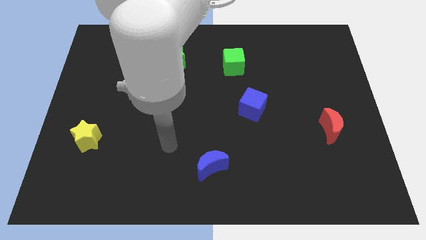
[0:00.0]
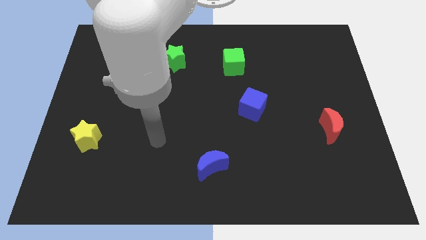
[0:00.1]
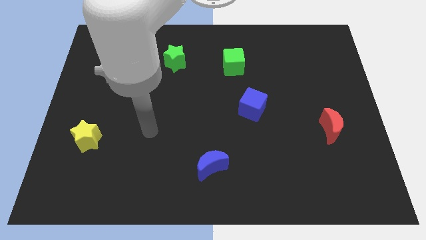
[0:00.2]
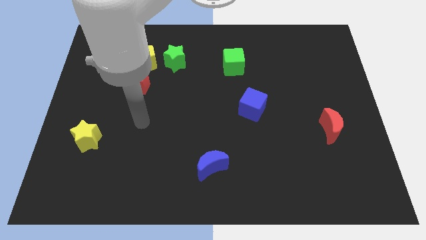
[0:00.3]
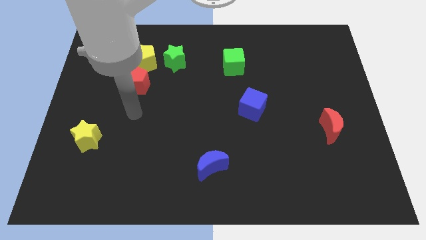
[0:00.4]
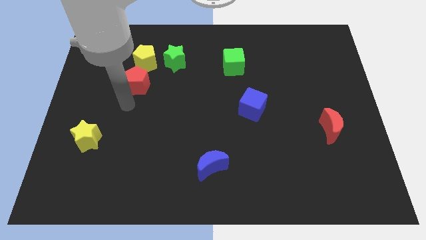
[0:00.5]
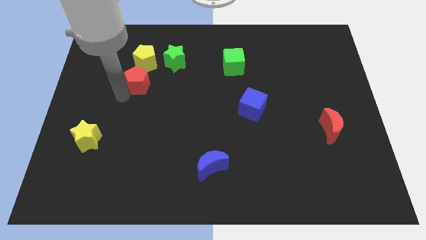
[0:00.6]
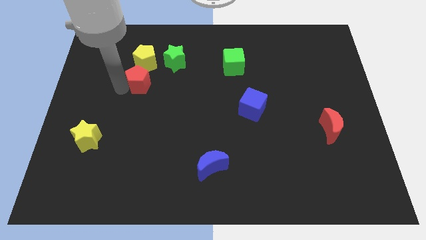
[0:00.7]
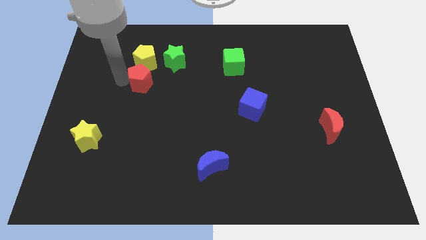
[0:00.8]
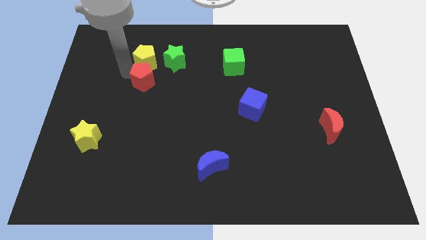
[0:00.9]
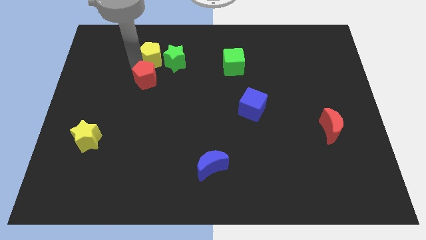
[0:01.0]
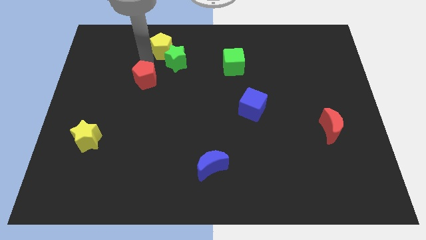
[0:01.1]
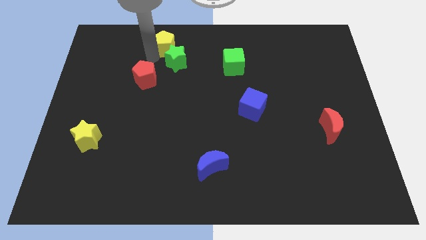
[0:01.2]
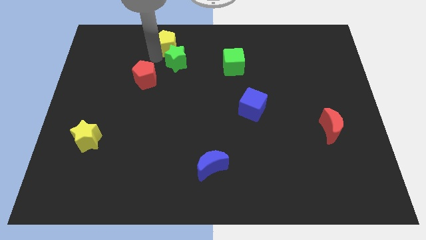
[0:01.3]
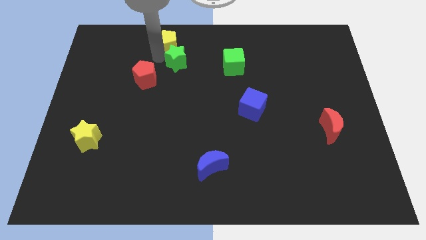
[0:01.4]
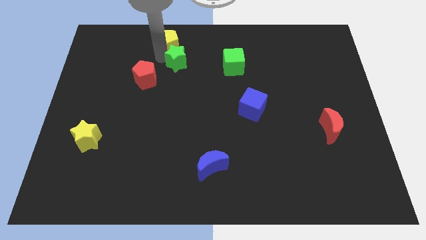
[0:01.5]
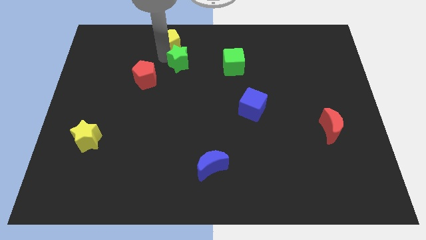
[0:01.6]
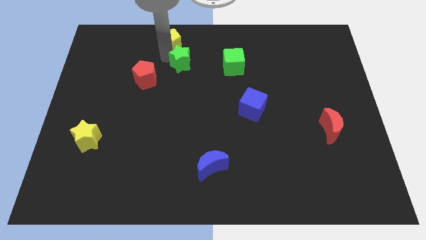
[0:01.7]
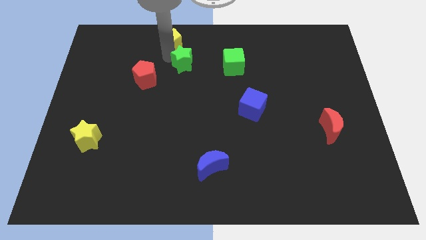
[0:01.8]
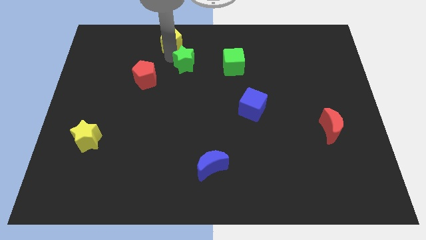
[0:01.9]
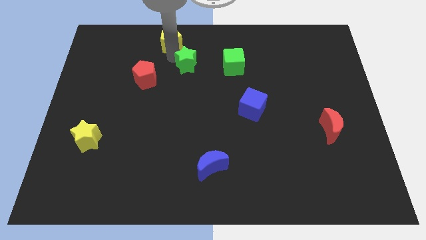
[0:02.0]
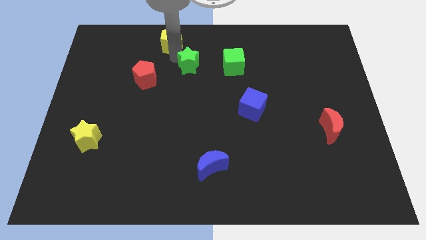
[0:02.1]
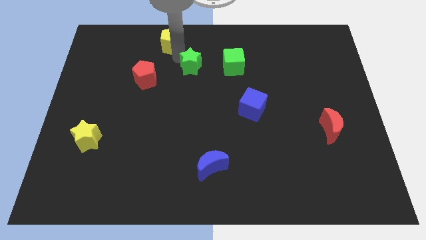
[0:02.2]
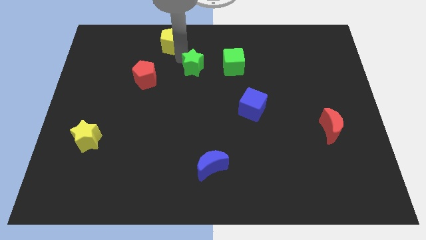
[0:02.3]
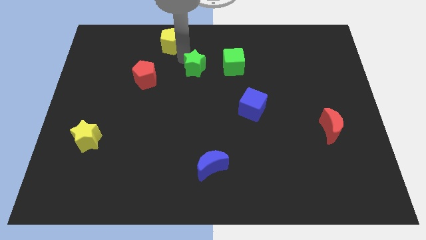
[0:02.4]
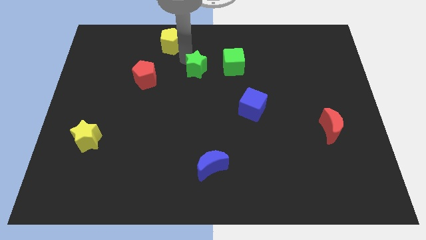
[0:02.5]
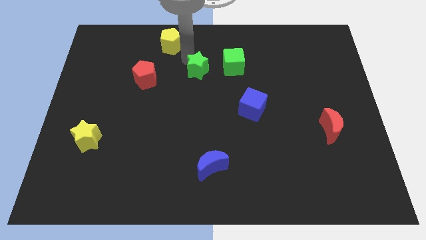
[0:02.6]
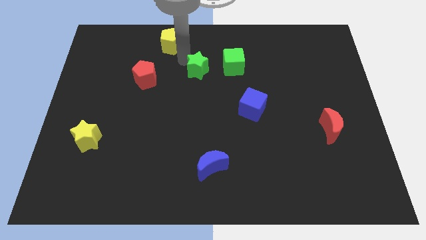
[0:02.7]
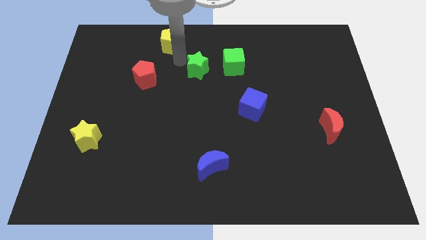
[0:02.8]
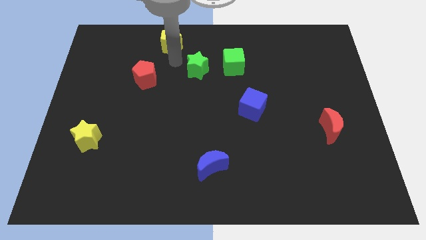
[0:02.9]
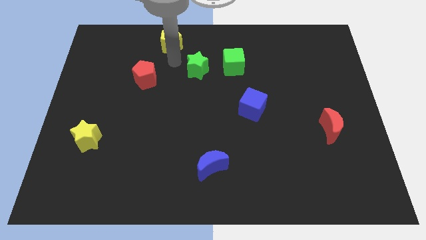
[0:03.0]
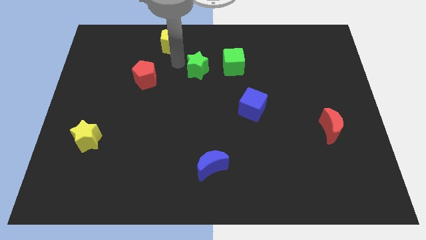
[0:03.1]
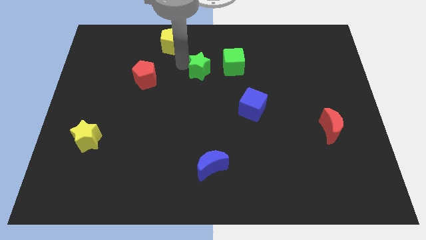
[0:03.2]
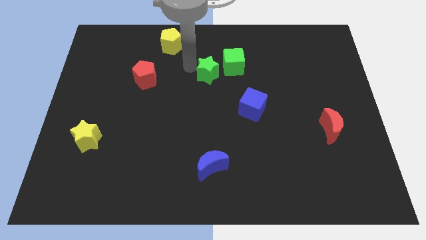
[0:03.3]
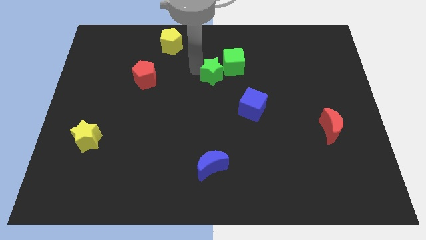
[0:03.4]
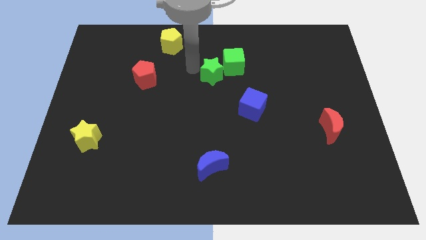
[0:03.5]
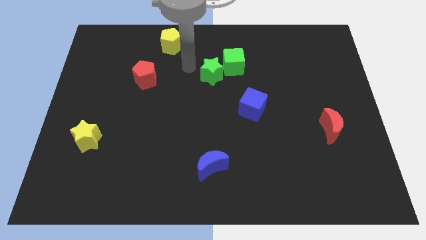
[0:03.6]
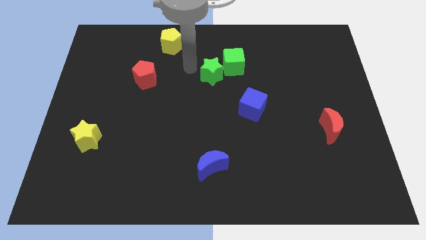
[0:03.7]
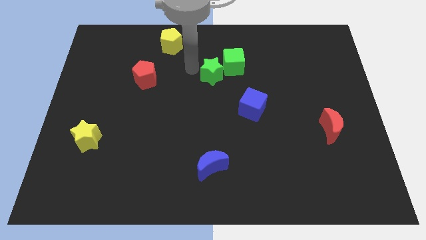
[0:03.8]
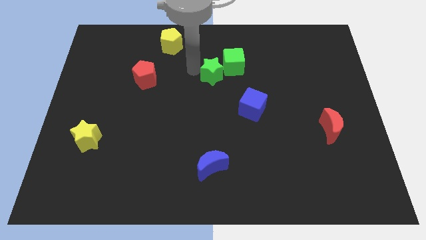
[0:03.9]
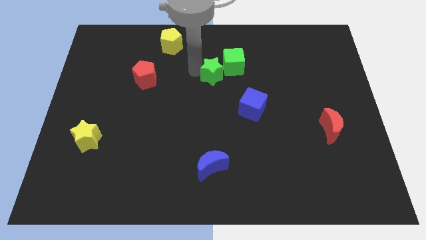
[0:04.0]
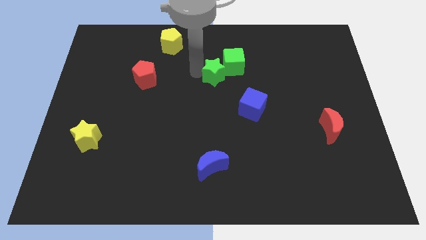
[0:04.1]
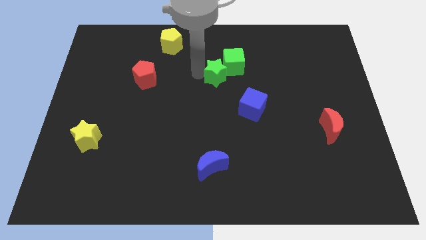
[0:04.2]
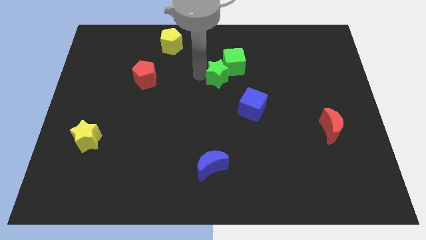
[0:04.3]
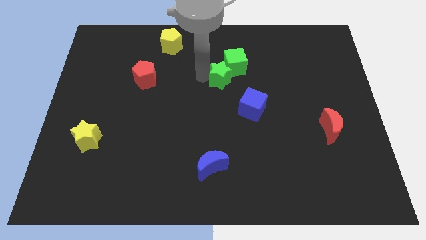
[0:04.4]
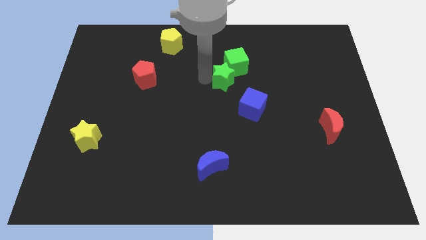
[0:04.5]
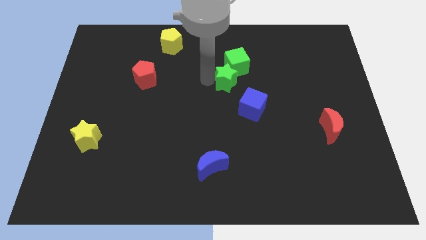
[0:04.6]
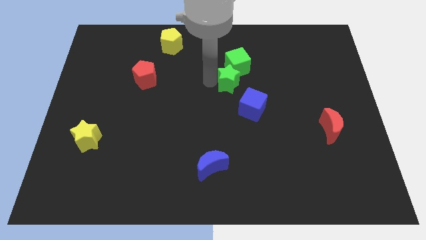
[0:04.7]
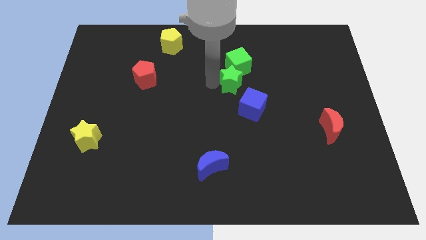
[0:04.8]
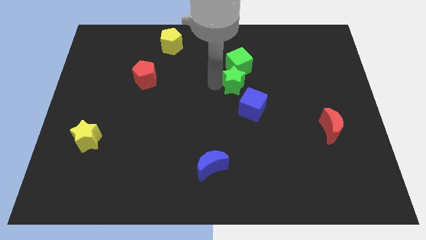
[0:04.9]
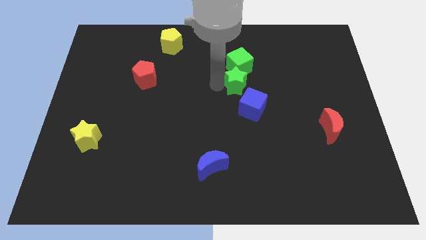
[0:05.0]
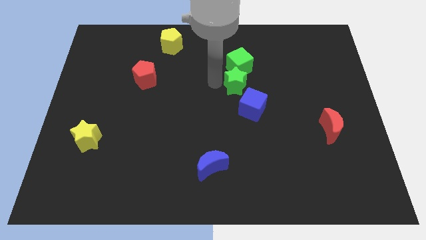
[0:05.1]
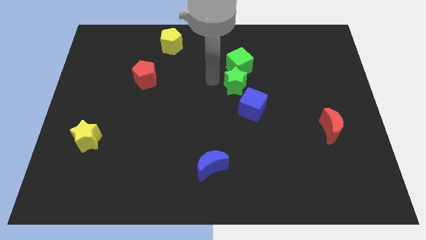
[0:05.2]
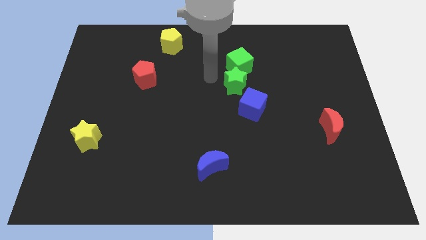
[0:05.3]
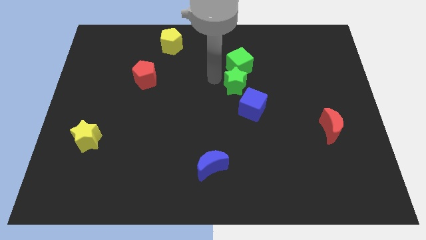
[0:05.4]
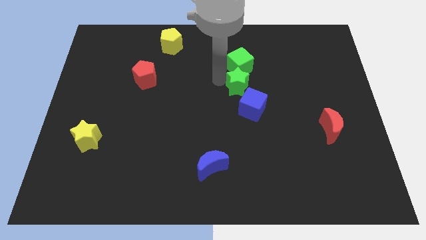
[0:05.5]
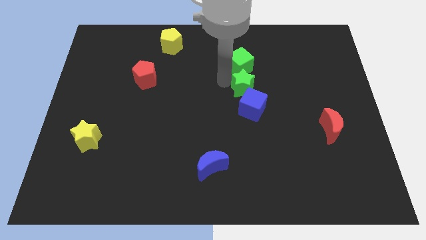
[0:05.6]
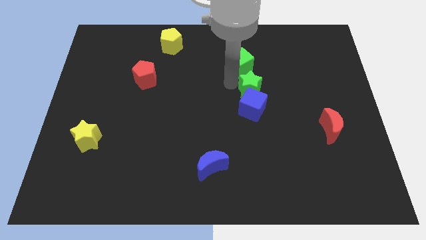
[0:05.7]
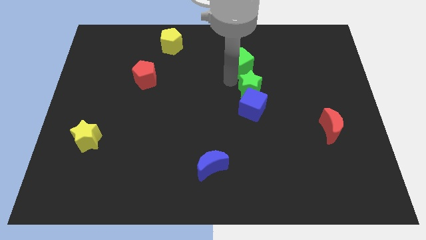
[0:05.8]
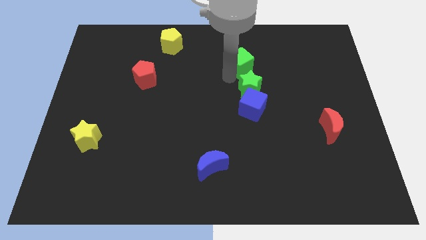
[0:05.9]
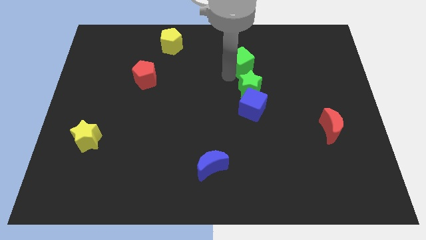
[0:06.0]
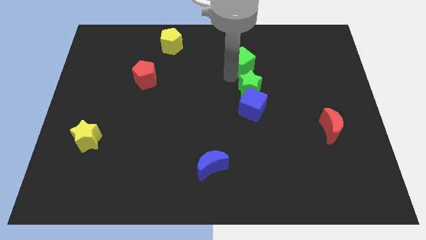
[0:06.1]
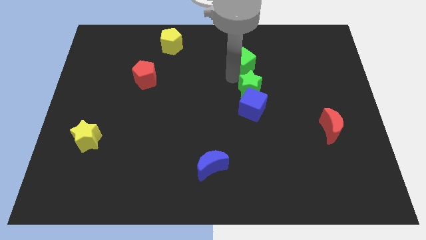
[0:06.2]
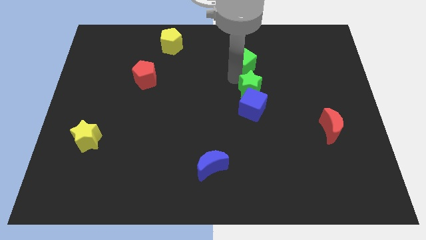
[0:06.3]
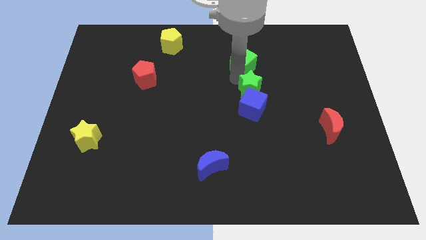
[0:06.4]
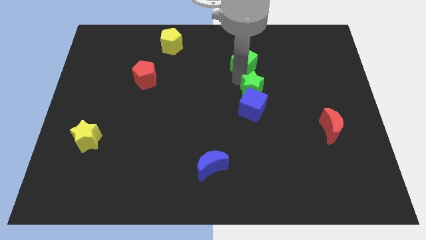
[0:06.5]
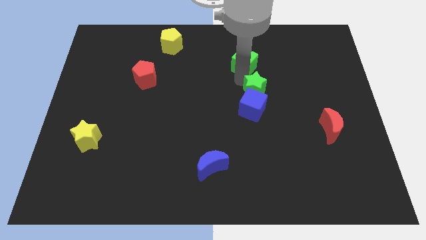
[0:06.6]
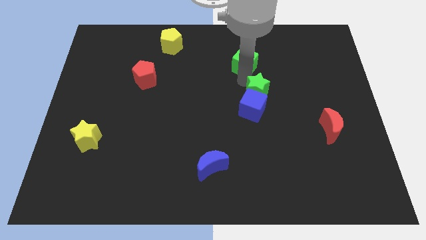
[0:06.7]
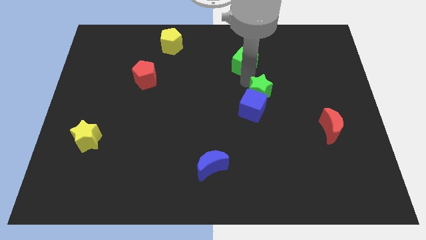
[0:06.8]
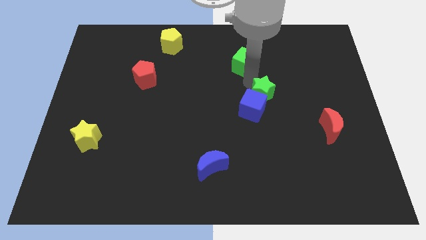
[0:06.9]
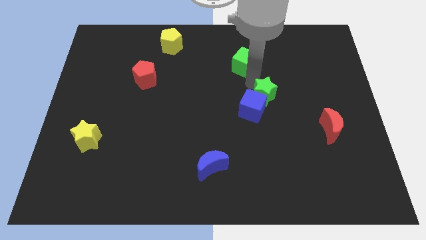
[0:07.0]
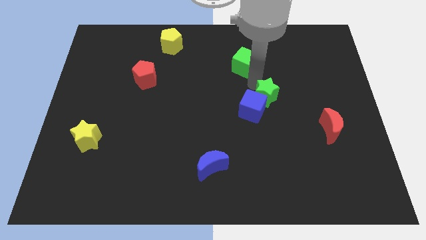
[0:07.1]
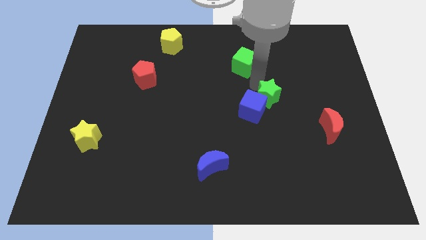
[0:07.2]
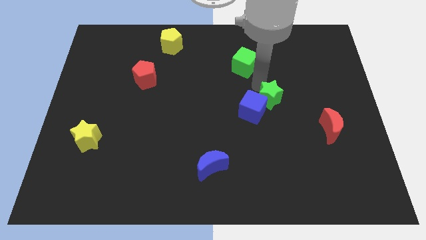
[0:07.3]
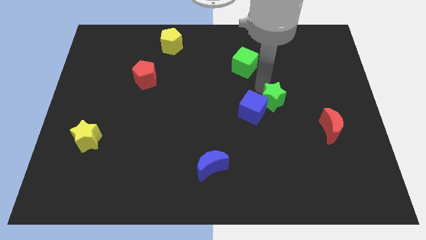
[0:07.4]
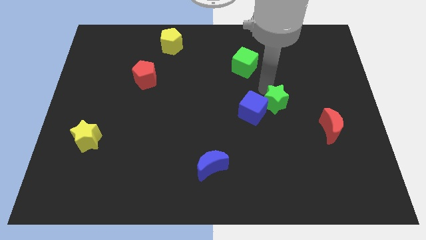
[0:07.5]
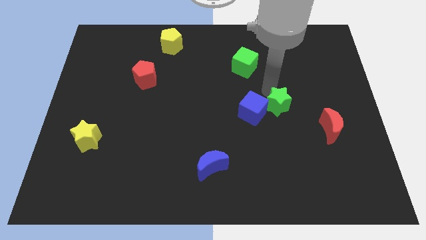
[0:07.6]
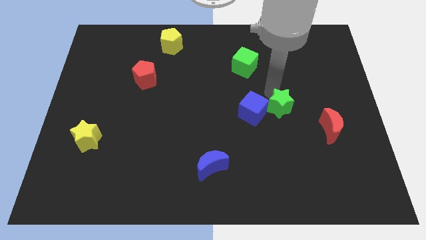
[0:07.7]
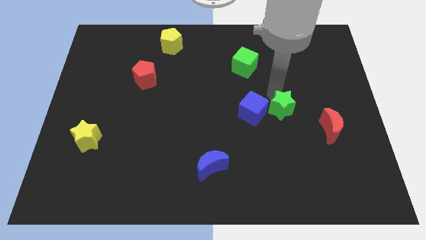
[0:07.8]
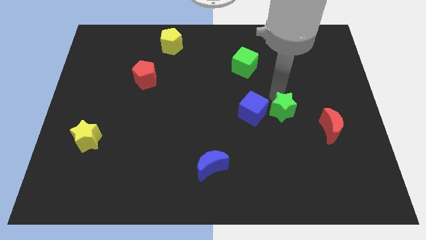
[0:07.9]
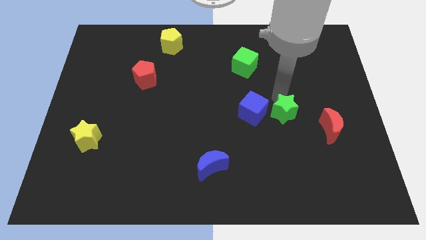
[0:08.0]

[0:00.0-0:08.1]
push the green star to the left side of the red moon

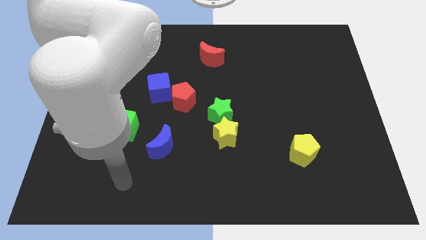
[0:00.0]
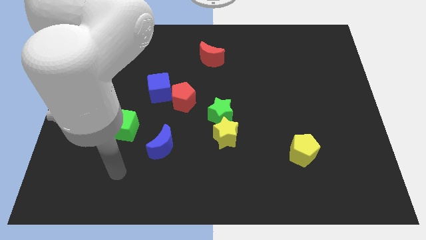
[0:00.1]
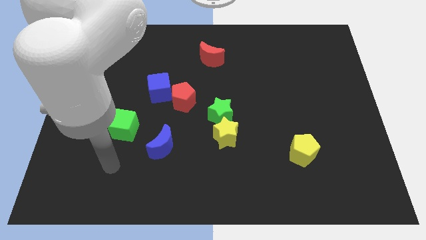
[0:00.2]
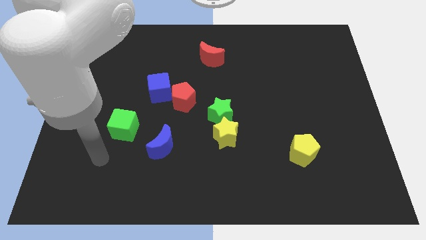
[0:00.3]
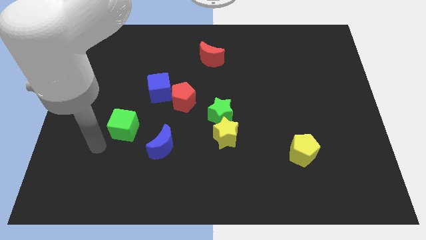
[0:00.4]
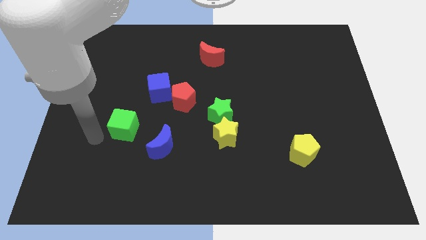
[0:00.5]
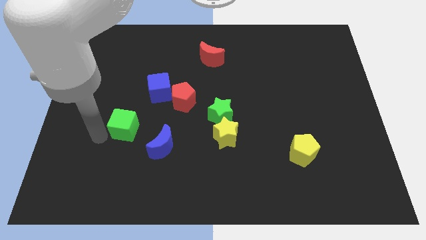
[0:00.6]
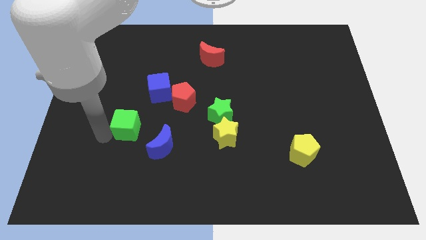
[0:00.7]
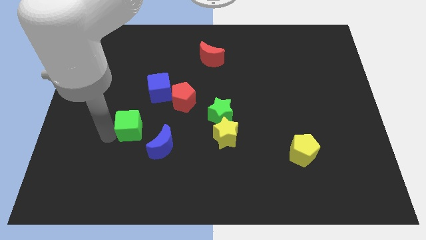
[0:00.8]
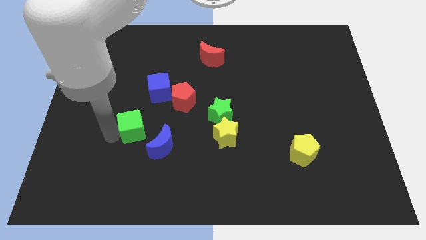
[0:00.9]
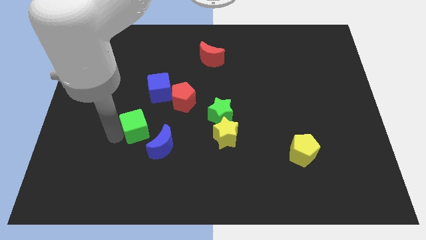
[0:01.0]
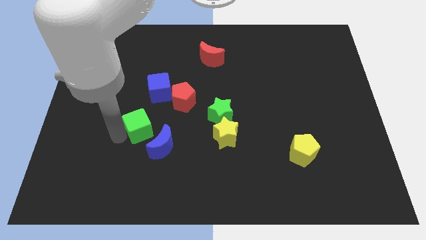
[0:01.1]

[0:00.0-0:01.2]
push the green cube diagonally down and to the left of the red pentagon
